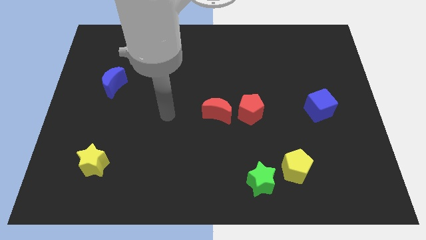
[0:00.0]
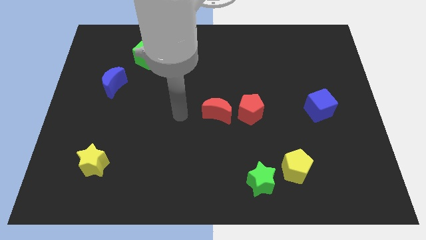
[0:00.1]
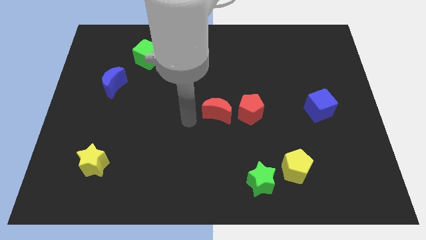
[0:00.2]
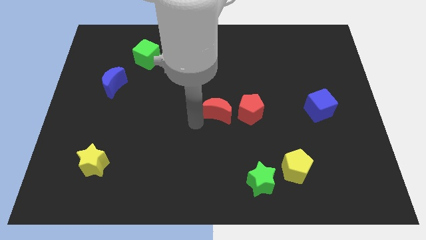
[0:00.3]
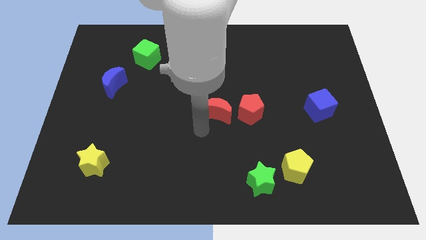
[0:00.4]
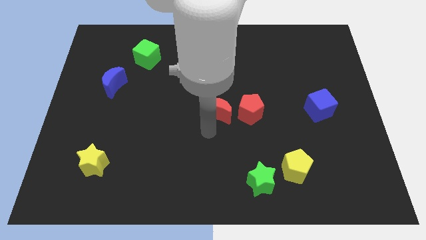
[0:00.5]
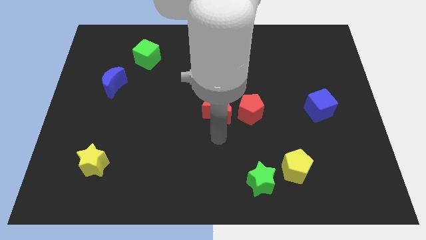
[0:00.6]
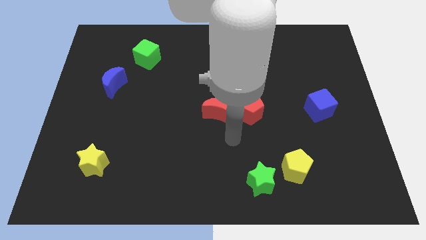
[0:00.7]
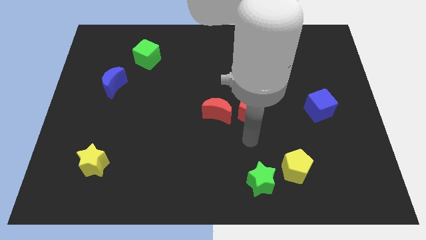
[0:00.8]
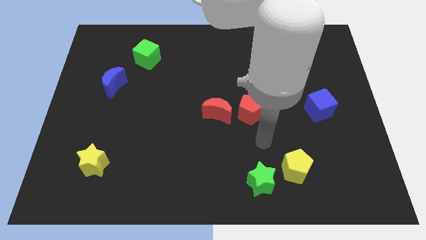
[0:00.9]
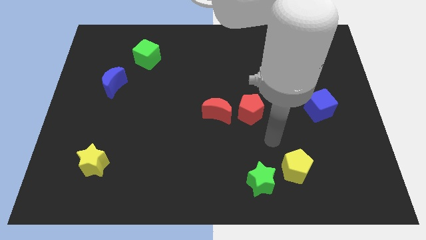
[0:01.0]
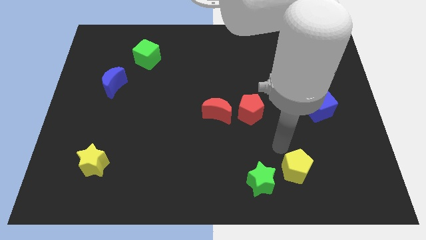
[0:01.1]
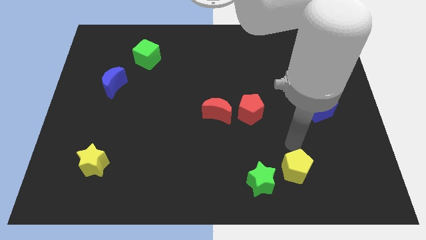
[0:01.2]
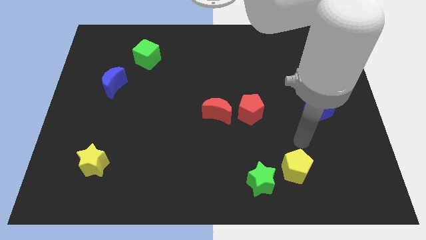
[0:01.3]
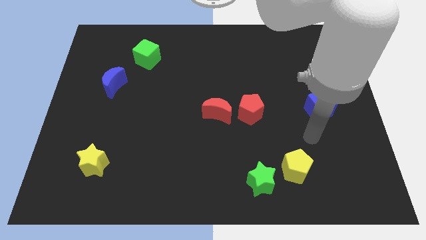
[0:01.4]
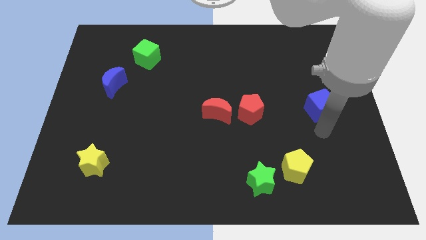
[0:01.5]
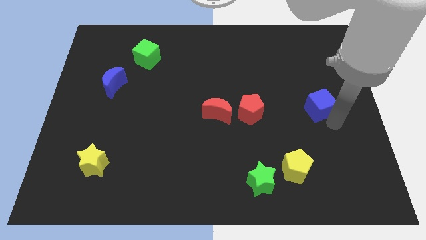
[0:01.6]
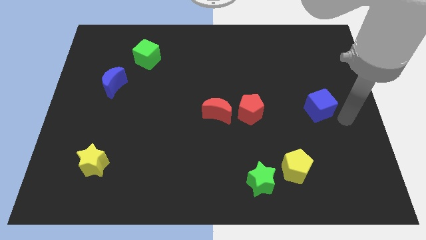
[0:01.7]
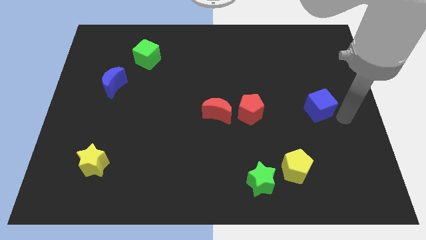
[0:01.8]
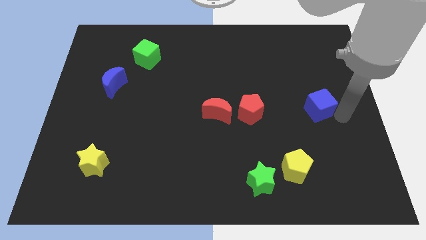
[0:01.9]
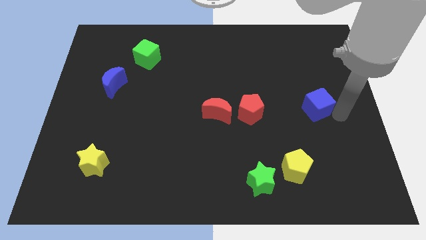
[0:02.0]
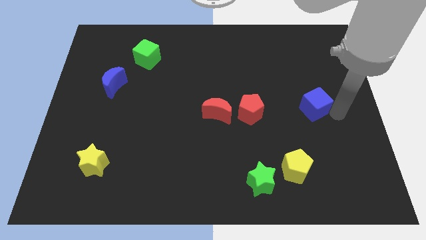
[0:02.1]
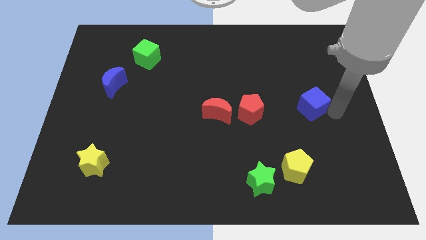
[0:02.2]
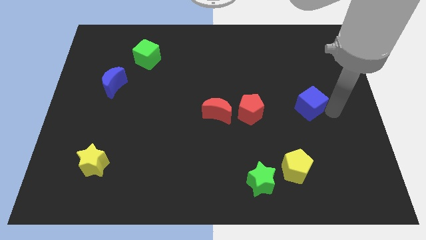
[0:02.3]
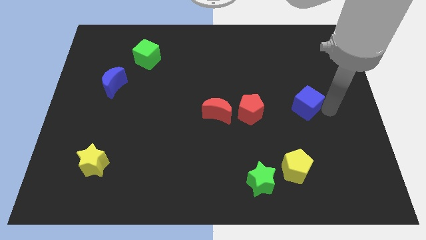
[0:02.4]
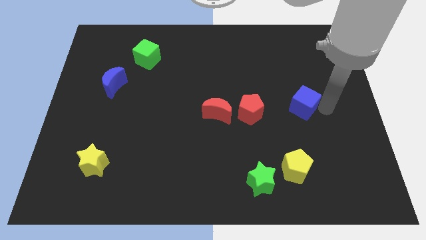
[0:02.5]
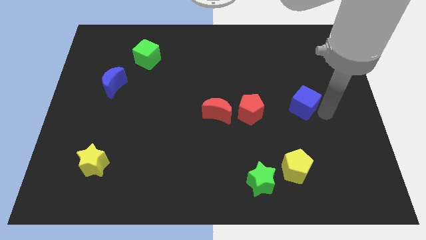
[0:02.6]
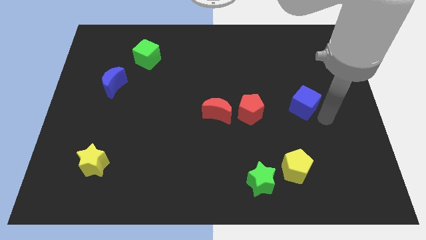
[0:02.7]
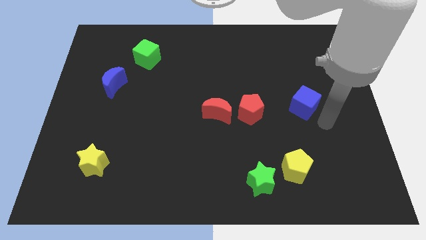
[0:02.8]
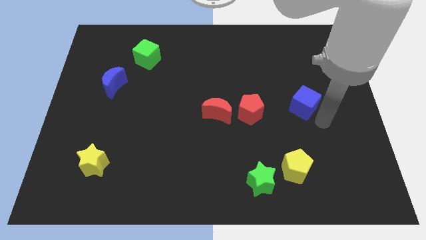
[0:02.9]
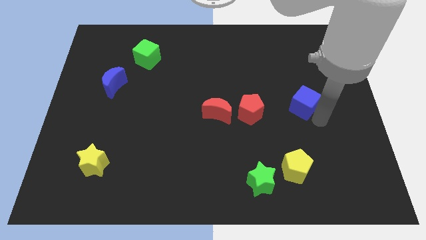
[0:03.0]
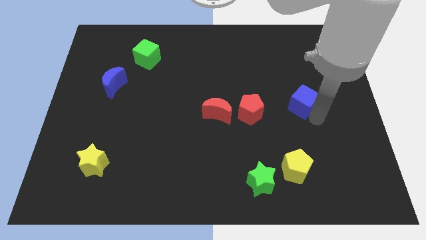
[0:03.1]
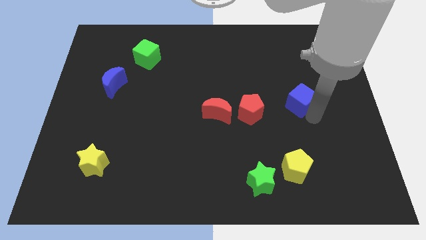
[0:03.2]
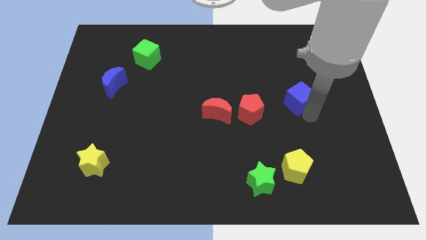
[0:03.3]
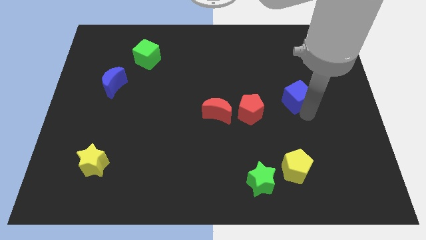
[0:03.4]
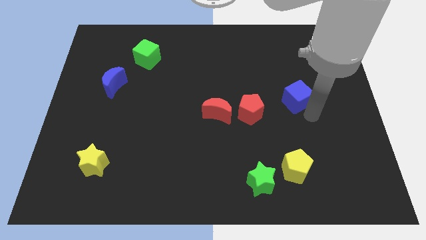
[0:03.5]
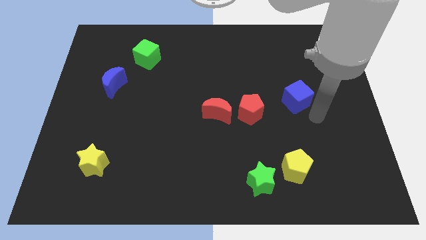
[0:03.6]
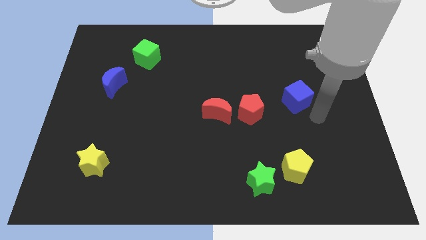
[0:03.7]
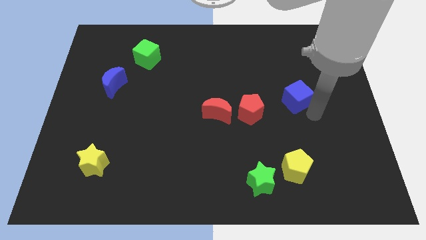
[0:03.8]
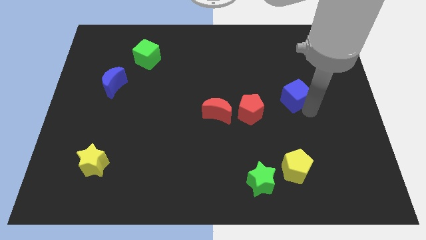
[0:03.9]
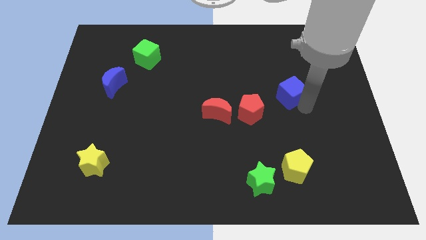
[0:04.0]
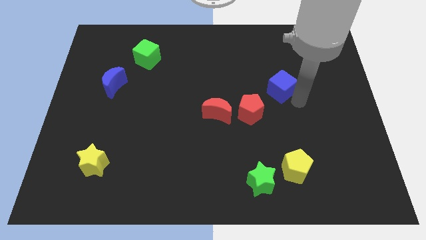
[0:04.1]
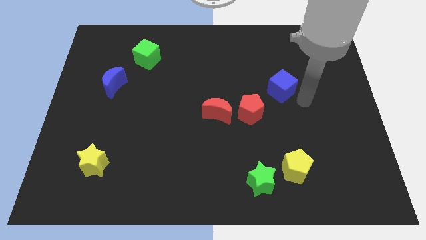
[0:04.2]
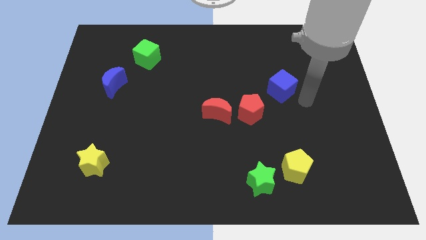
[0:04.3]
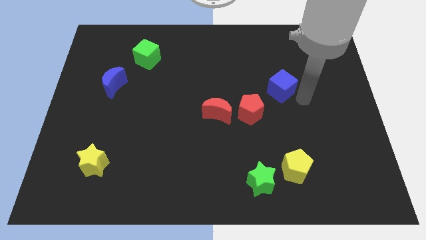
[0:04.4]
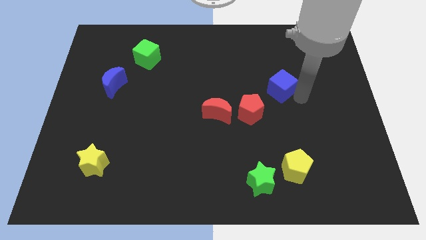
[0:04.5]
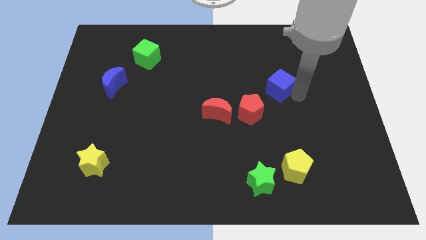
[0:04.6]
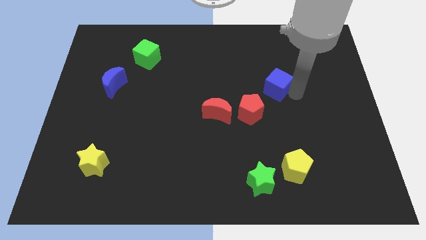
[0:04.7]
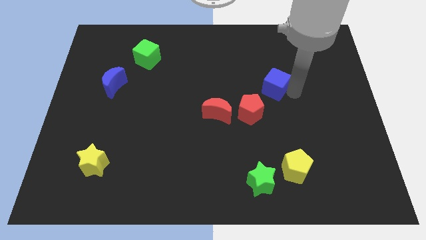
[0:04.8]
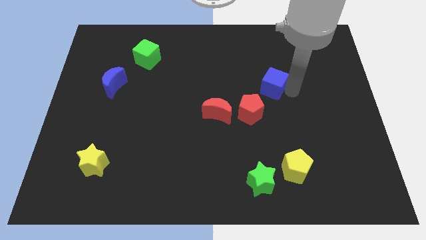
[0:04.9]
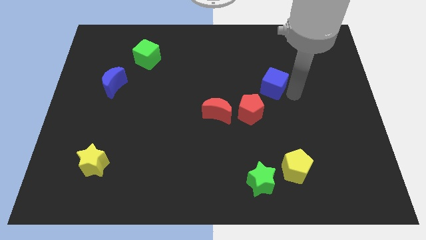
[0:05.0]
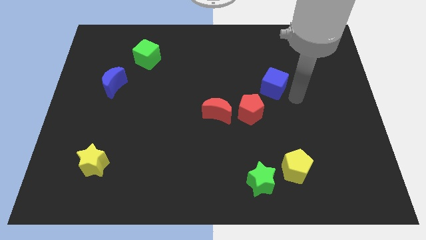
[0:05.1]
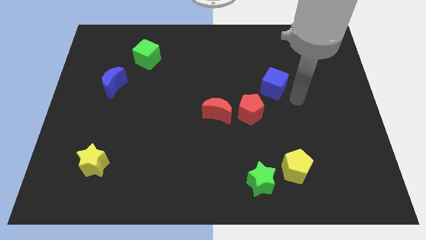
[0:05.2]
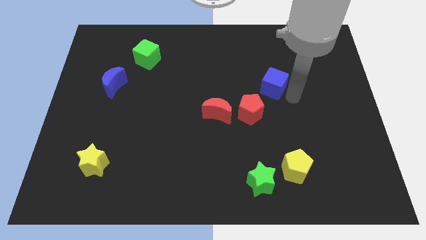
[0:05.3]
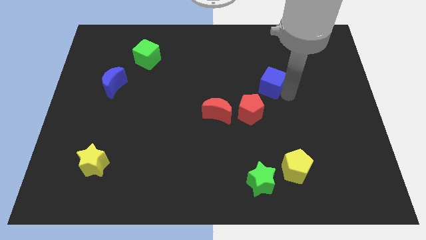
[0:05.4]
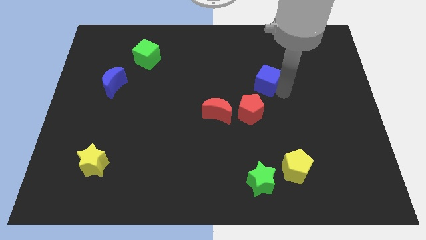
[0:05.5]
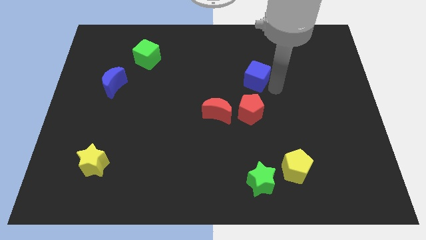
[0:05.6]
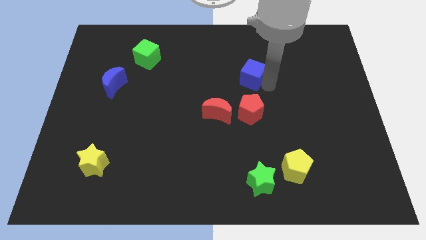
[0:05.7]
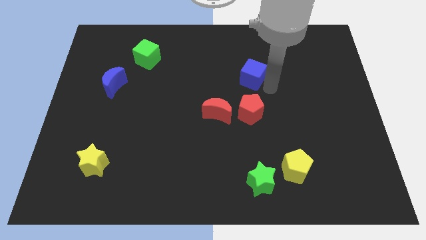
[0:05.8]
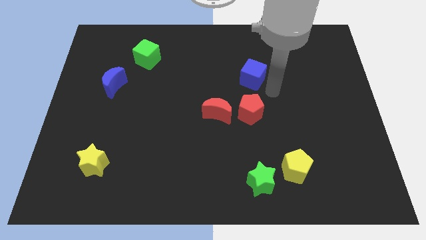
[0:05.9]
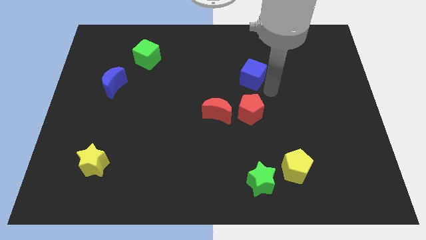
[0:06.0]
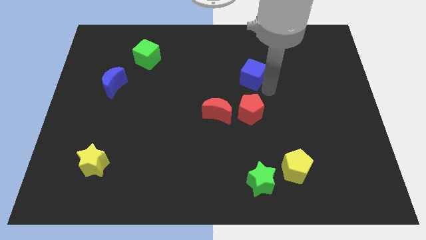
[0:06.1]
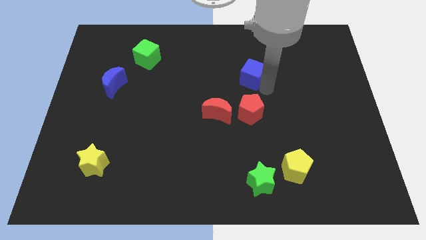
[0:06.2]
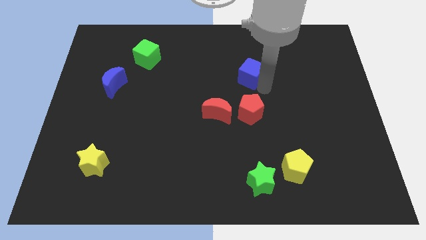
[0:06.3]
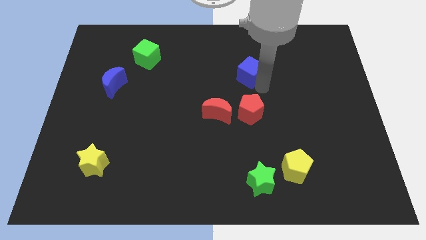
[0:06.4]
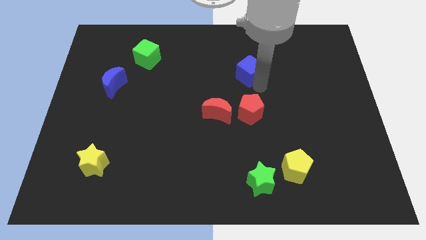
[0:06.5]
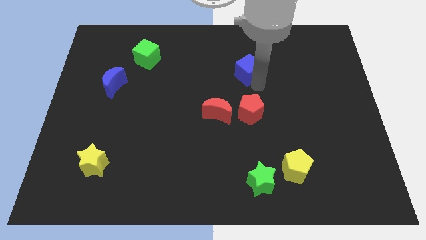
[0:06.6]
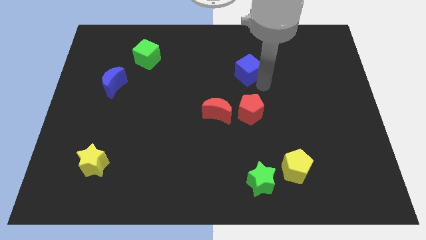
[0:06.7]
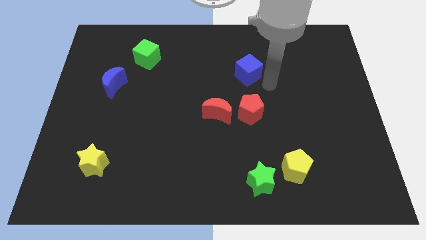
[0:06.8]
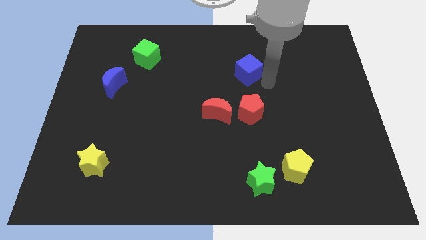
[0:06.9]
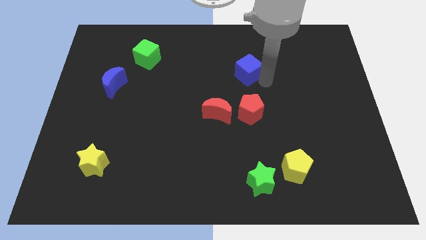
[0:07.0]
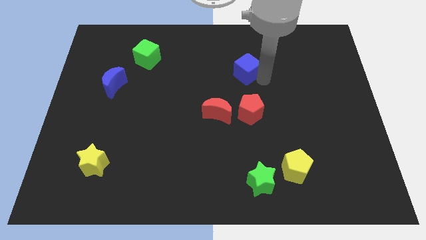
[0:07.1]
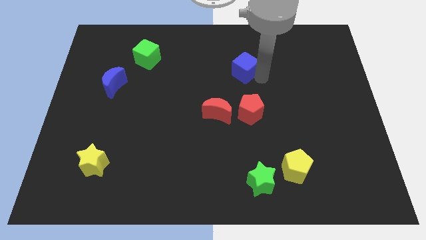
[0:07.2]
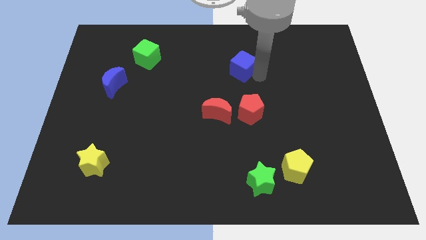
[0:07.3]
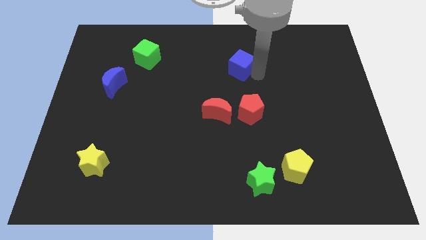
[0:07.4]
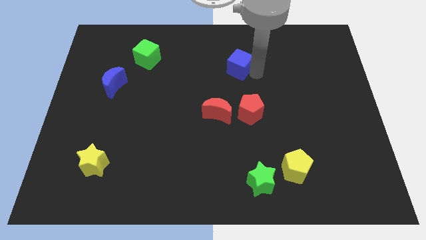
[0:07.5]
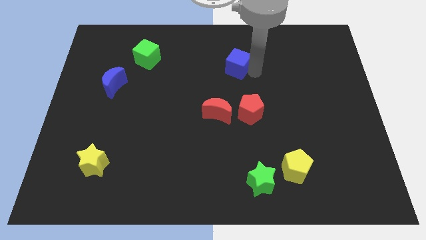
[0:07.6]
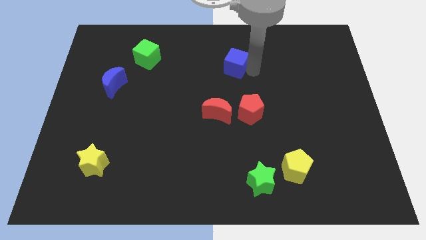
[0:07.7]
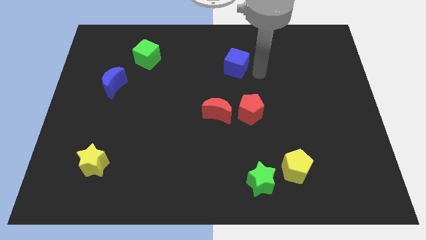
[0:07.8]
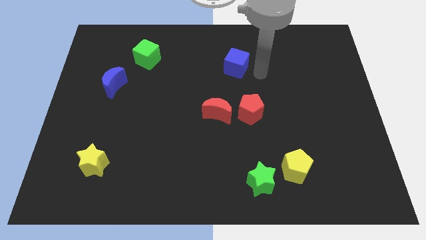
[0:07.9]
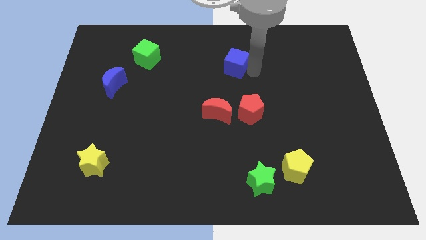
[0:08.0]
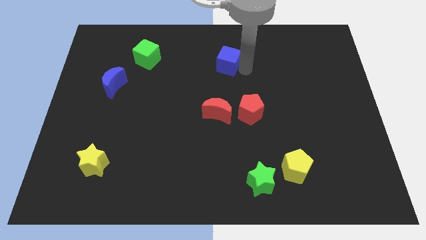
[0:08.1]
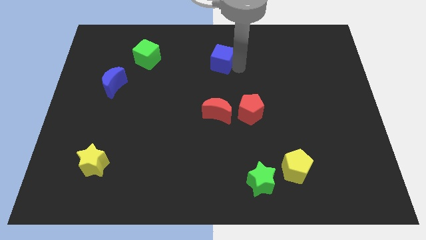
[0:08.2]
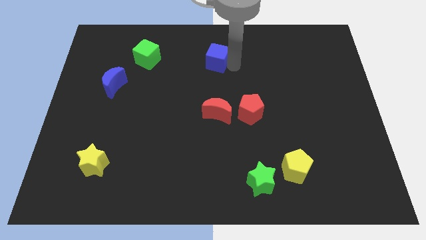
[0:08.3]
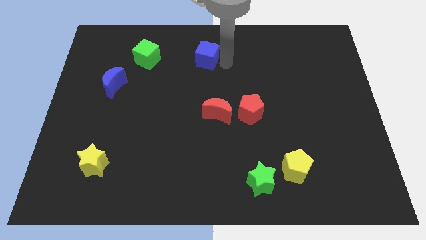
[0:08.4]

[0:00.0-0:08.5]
push the blue cube just right of the green cube
